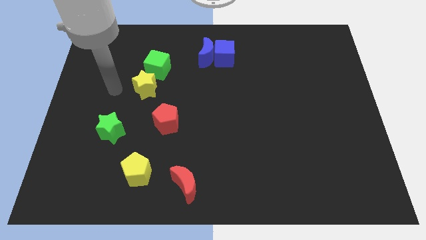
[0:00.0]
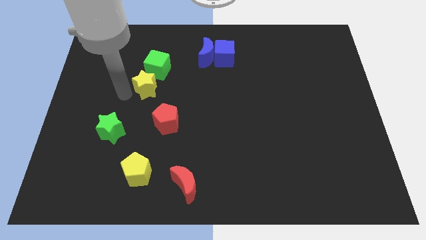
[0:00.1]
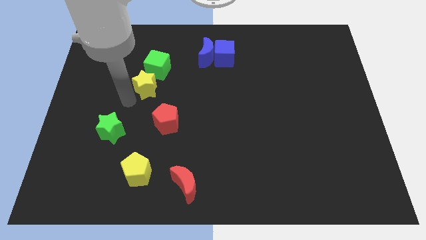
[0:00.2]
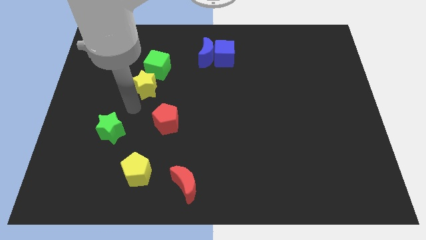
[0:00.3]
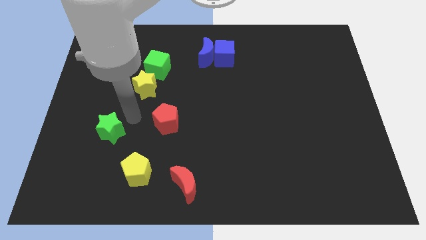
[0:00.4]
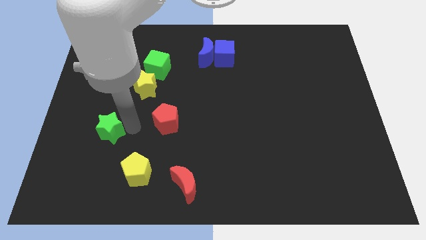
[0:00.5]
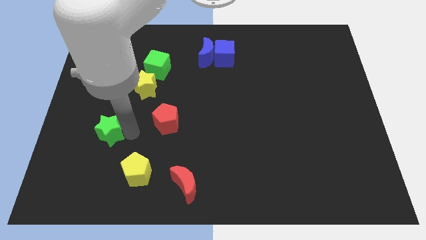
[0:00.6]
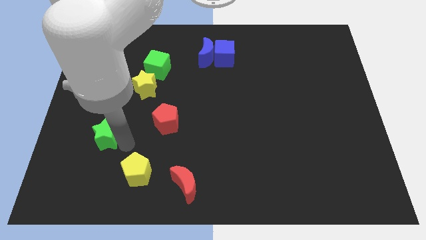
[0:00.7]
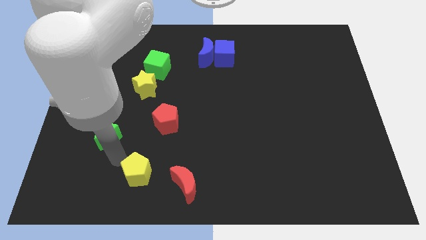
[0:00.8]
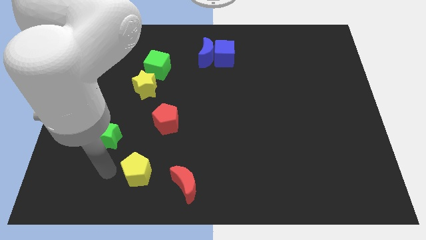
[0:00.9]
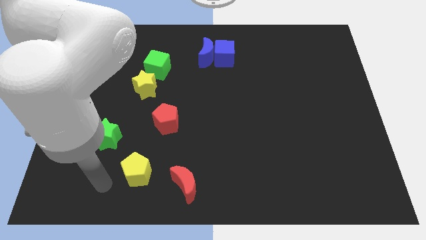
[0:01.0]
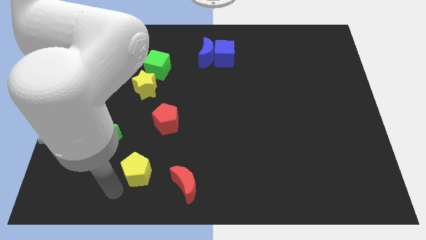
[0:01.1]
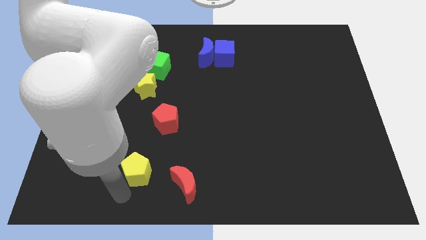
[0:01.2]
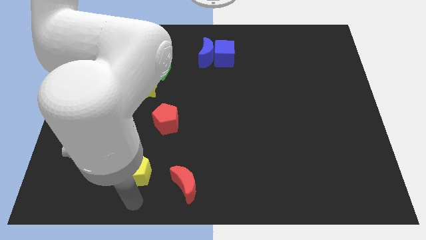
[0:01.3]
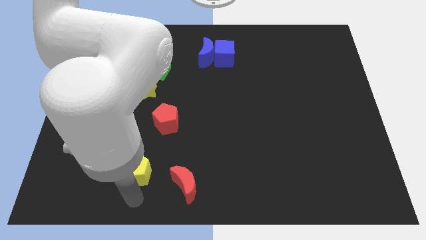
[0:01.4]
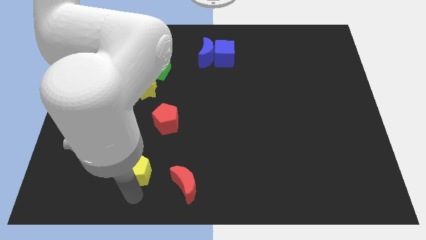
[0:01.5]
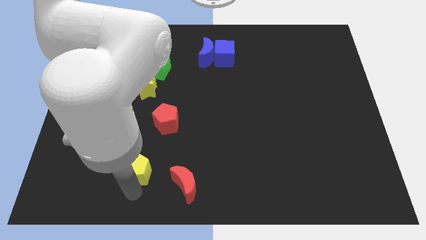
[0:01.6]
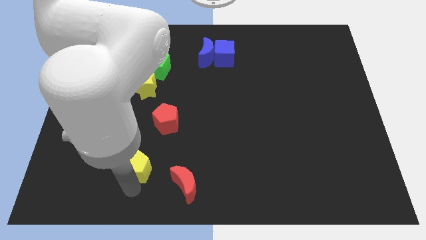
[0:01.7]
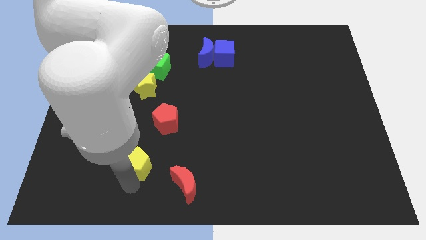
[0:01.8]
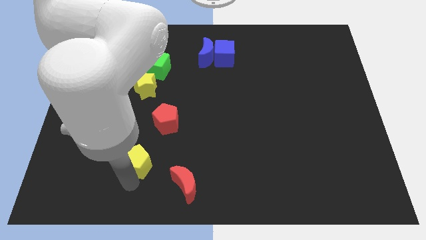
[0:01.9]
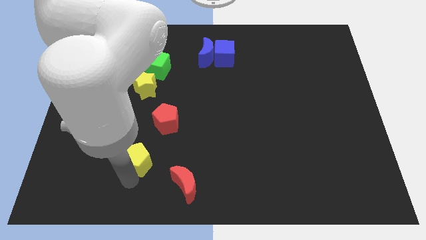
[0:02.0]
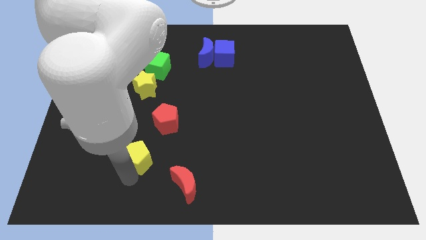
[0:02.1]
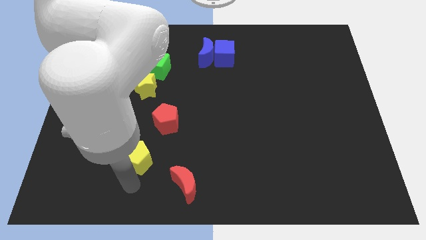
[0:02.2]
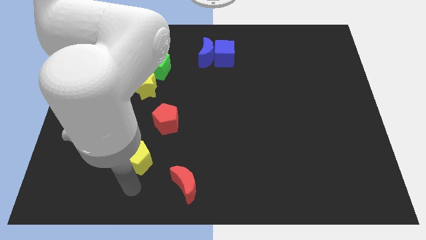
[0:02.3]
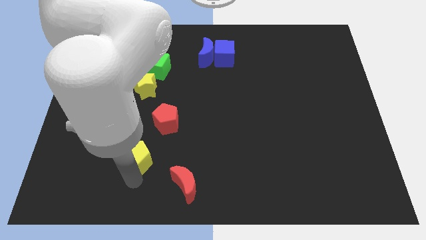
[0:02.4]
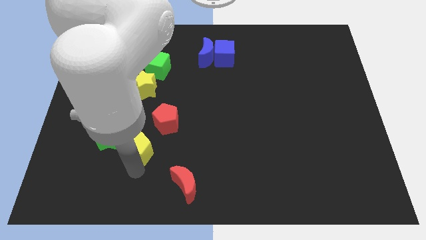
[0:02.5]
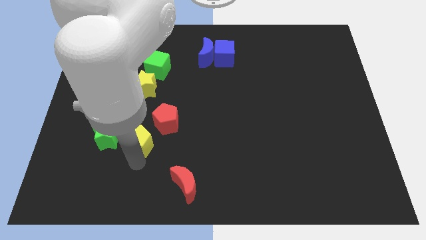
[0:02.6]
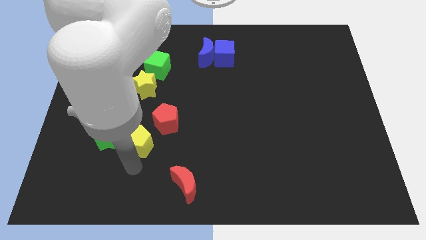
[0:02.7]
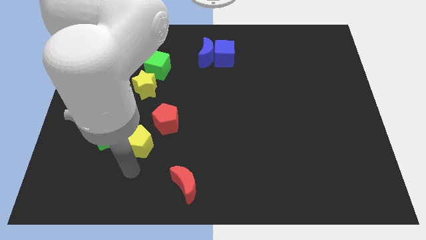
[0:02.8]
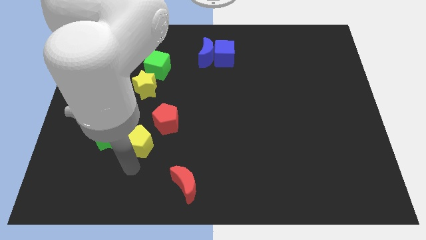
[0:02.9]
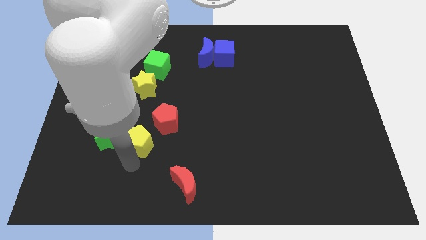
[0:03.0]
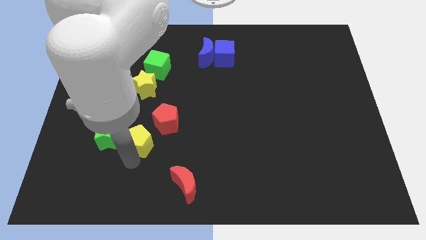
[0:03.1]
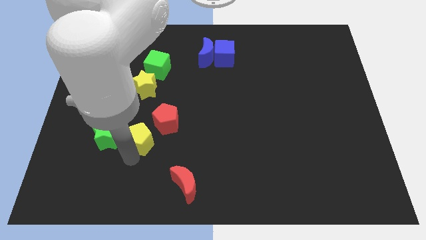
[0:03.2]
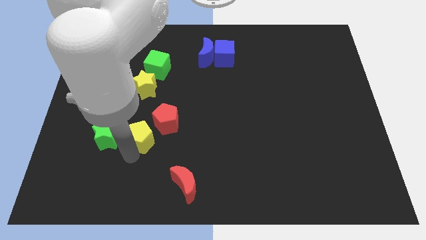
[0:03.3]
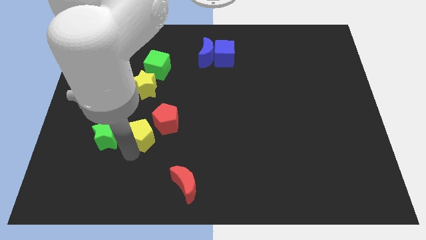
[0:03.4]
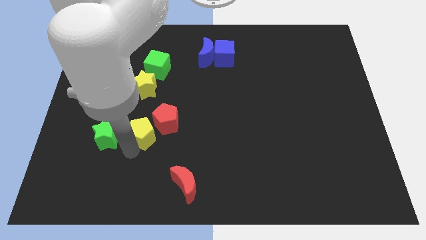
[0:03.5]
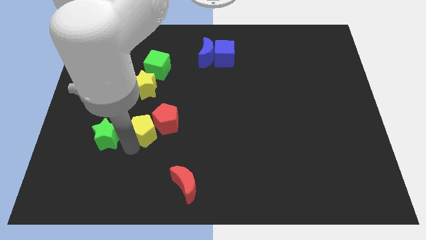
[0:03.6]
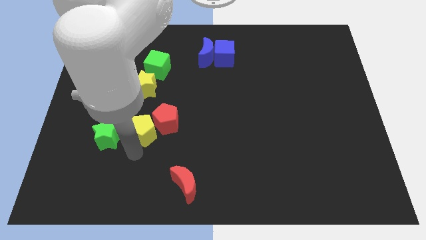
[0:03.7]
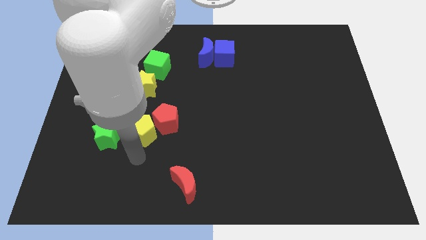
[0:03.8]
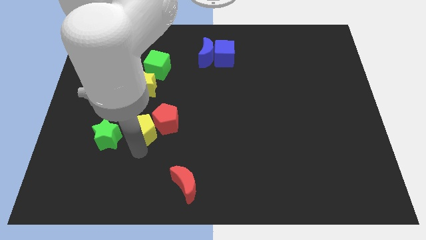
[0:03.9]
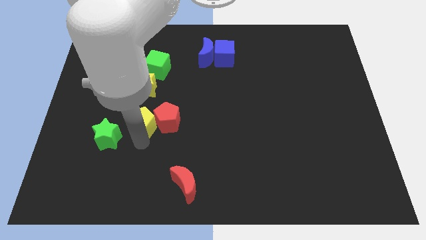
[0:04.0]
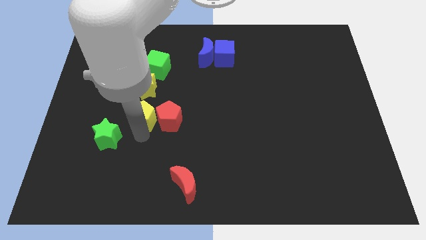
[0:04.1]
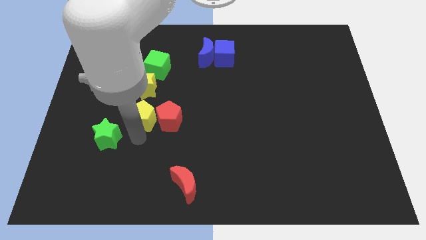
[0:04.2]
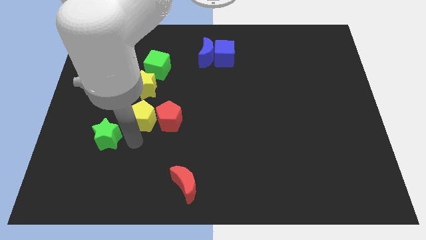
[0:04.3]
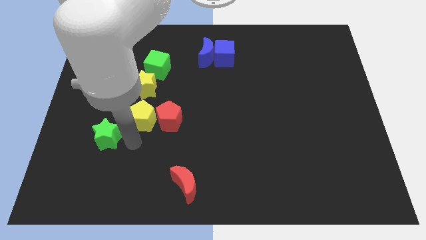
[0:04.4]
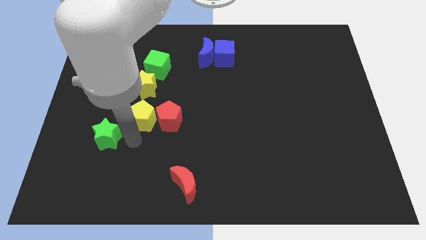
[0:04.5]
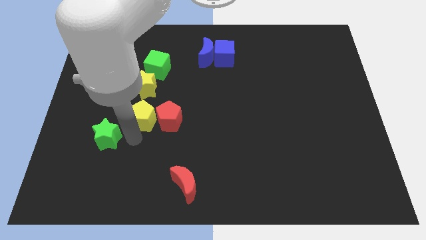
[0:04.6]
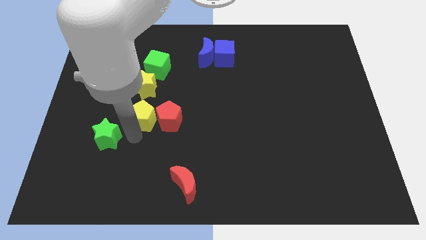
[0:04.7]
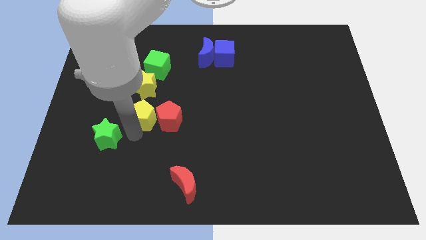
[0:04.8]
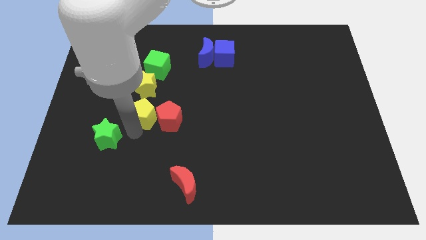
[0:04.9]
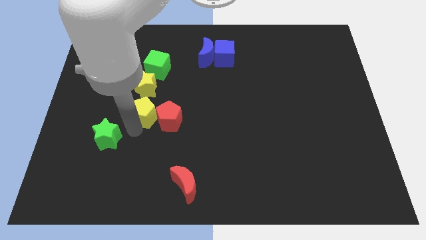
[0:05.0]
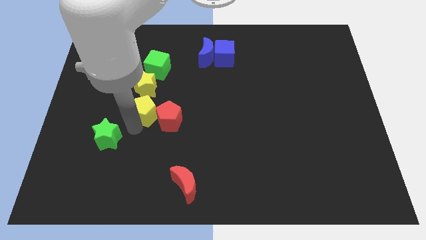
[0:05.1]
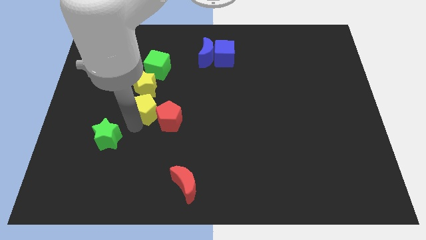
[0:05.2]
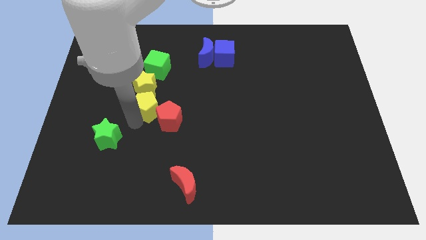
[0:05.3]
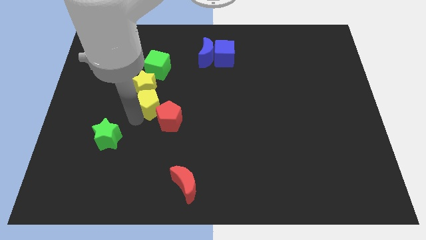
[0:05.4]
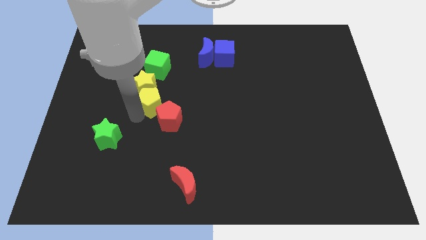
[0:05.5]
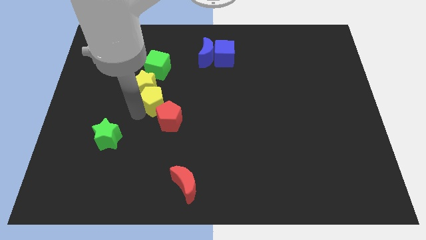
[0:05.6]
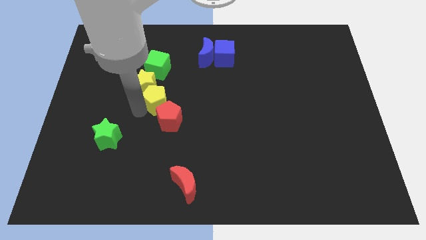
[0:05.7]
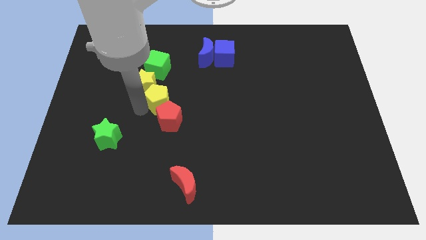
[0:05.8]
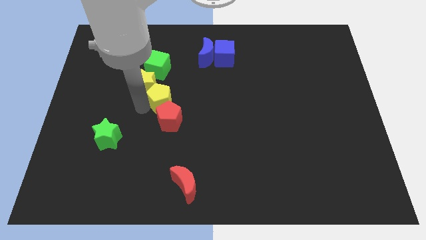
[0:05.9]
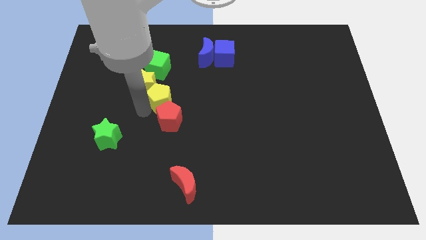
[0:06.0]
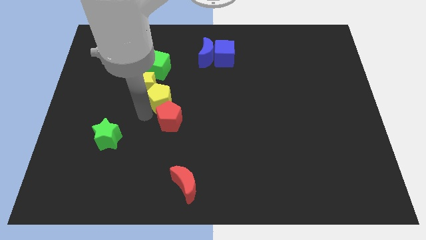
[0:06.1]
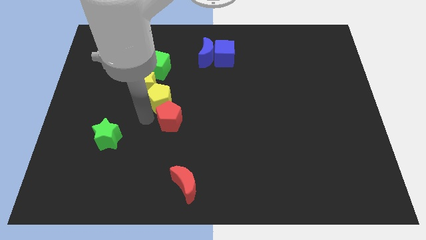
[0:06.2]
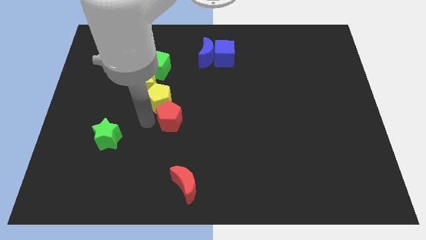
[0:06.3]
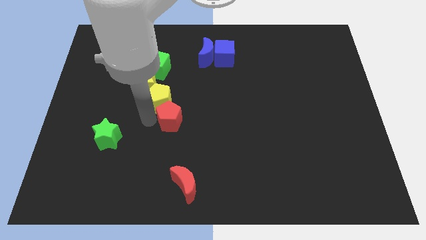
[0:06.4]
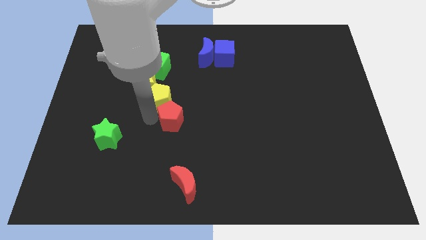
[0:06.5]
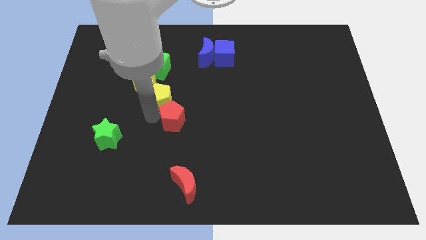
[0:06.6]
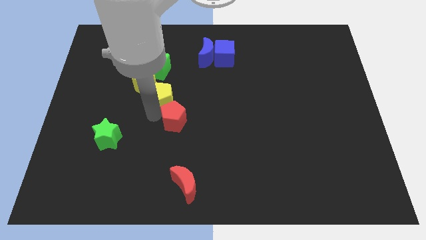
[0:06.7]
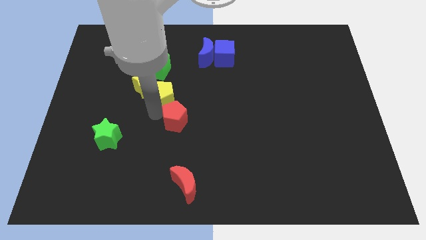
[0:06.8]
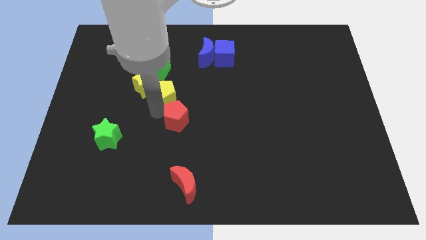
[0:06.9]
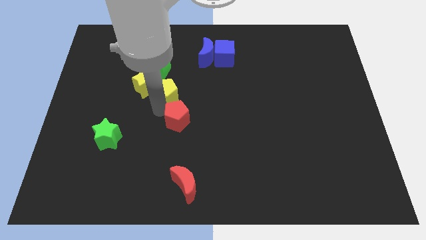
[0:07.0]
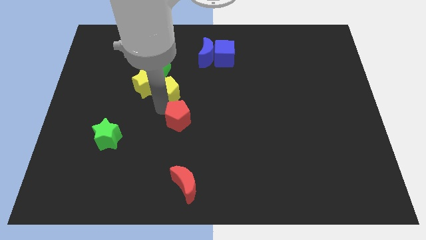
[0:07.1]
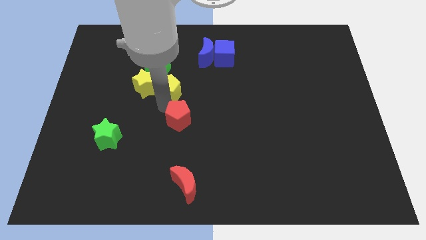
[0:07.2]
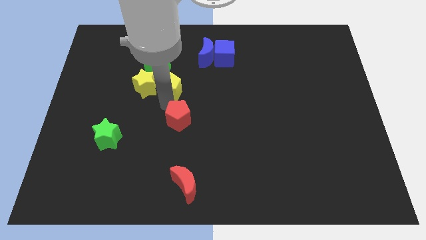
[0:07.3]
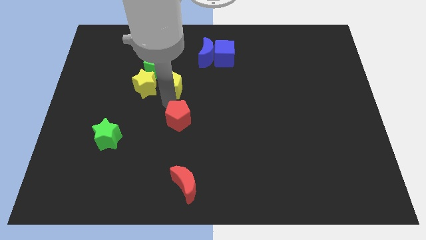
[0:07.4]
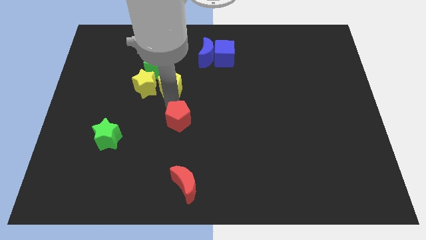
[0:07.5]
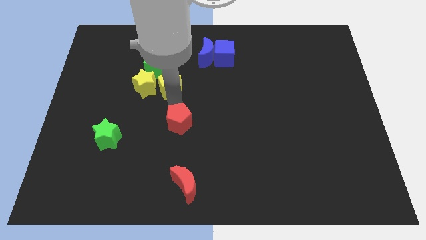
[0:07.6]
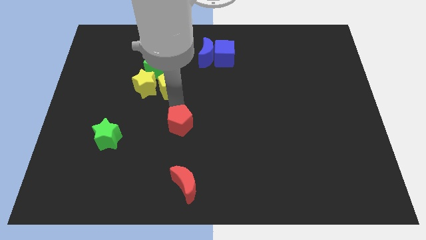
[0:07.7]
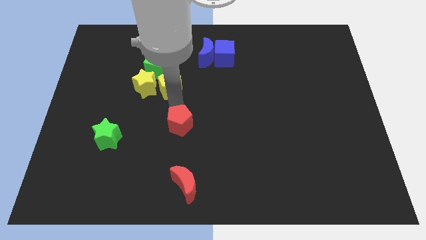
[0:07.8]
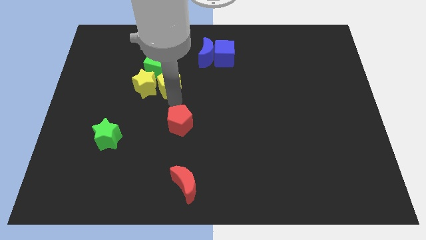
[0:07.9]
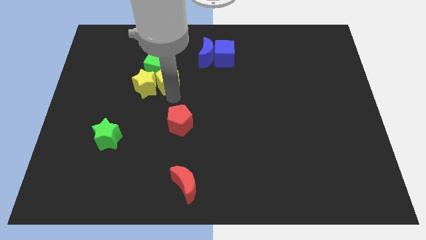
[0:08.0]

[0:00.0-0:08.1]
push the yellow pentagon next to the green cube
